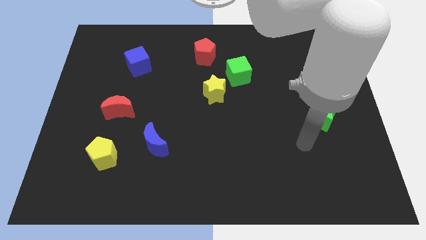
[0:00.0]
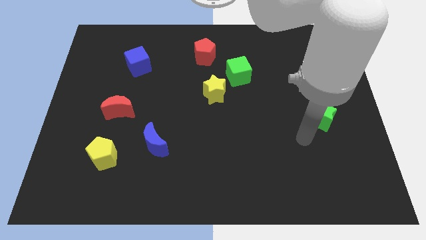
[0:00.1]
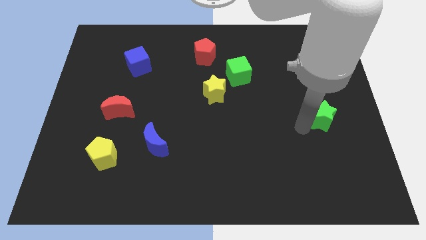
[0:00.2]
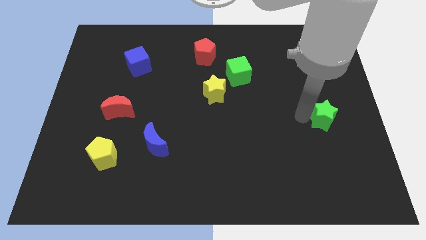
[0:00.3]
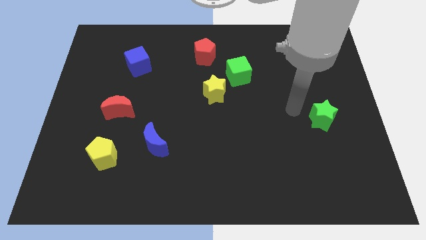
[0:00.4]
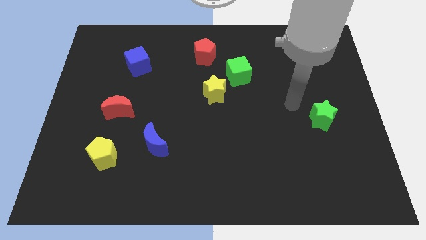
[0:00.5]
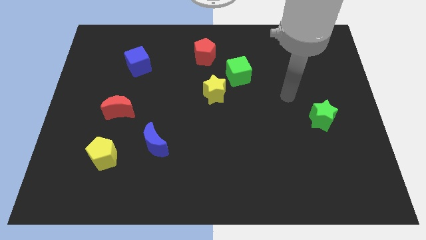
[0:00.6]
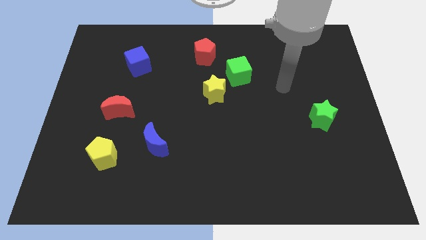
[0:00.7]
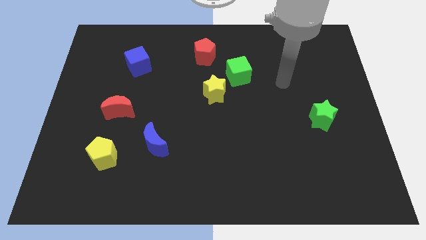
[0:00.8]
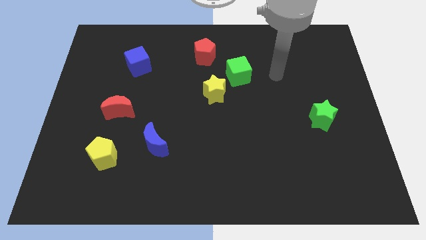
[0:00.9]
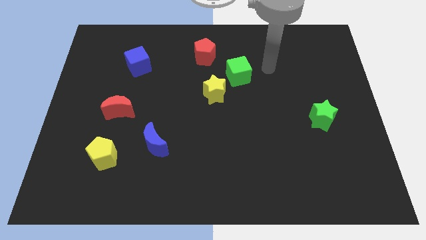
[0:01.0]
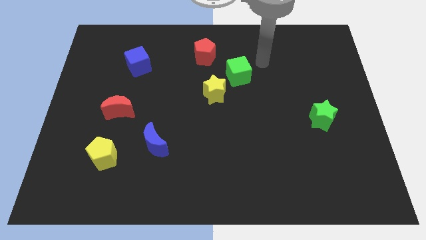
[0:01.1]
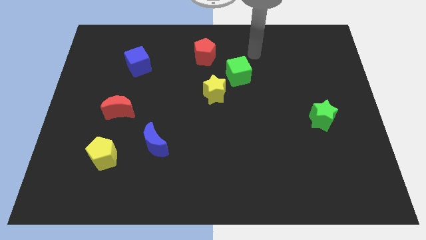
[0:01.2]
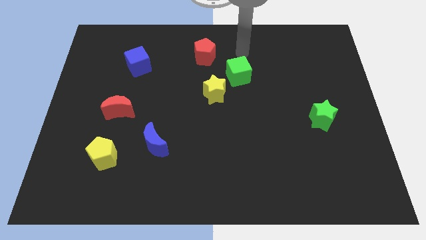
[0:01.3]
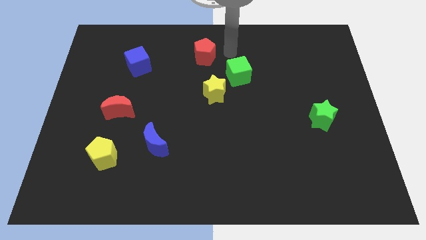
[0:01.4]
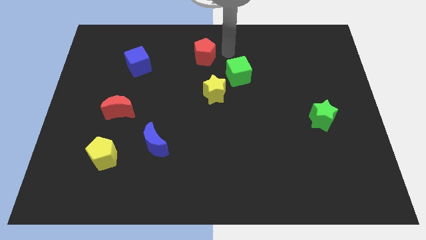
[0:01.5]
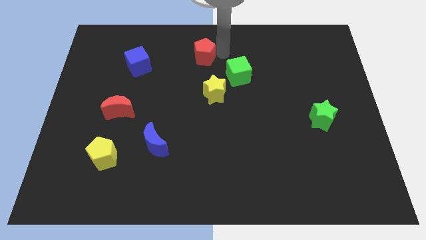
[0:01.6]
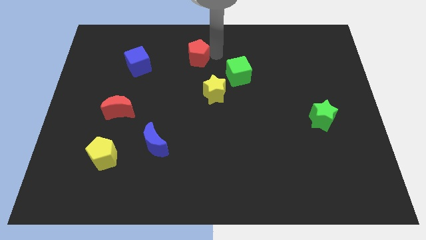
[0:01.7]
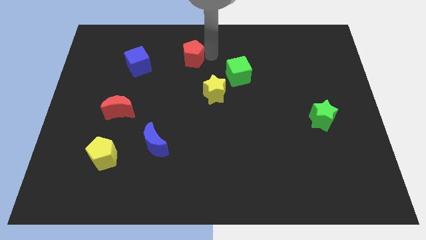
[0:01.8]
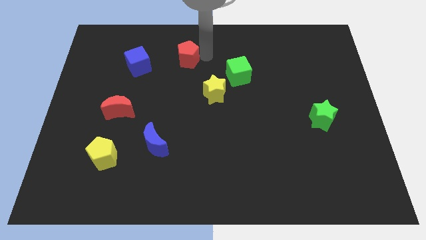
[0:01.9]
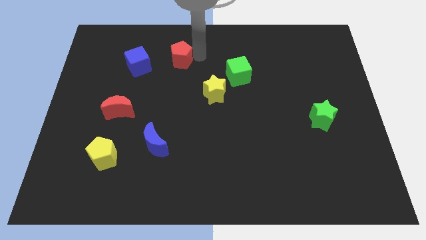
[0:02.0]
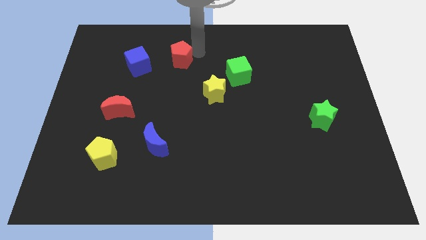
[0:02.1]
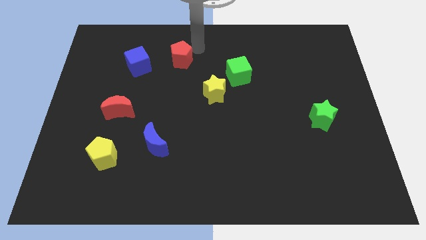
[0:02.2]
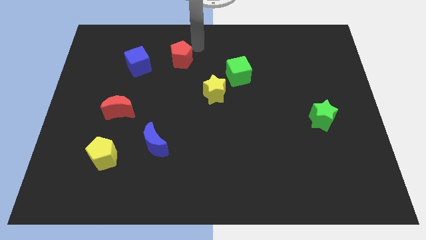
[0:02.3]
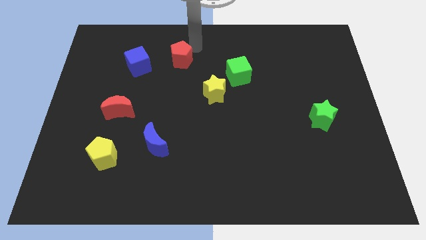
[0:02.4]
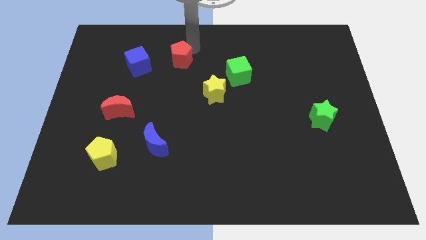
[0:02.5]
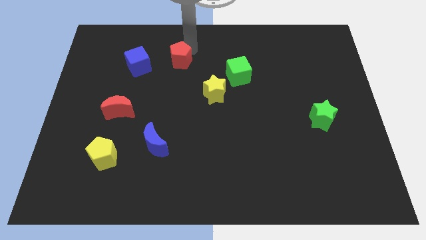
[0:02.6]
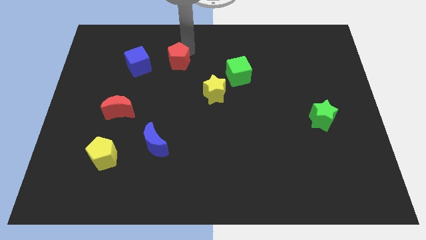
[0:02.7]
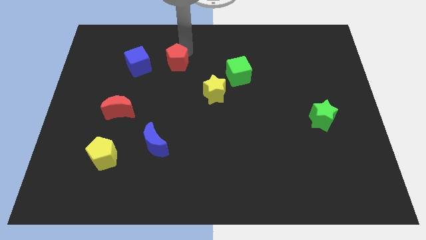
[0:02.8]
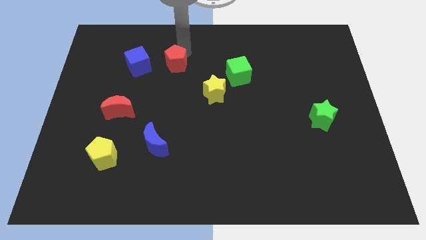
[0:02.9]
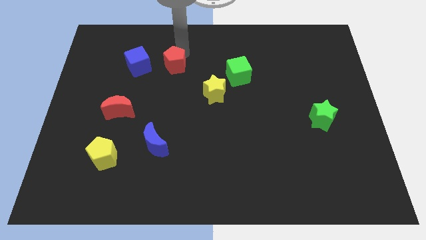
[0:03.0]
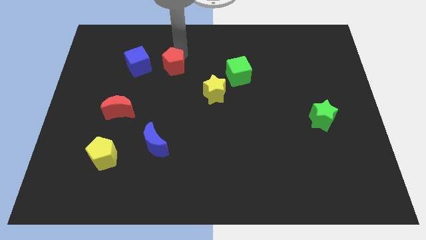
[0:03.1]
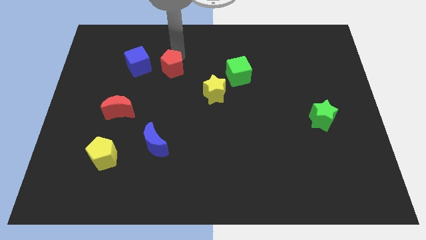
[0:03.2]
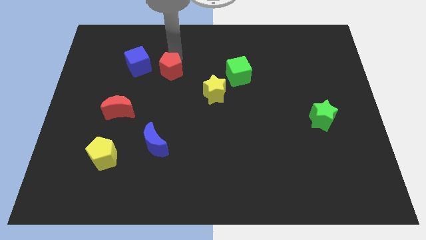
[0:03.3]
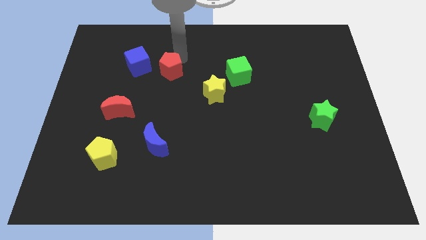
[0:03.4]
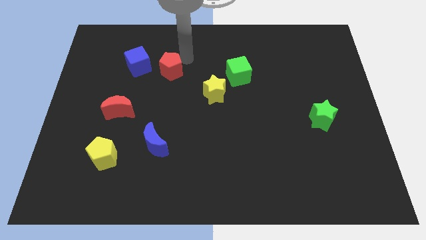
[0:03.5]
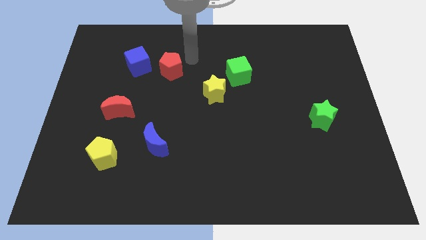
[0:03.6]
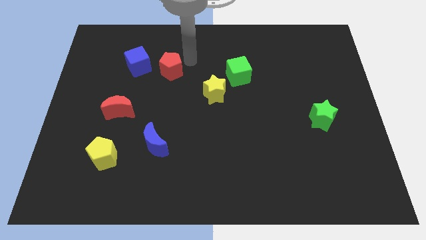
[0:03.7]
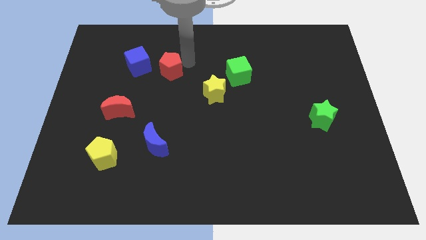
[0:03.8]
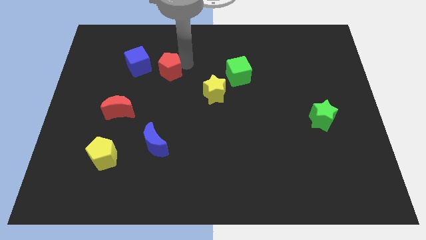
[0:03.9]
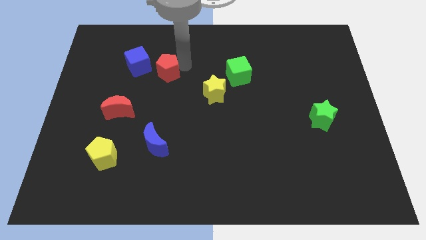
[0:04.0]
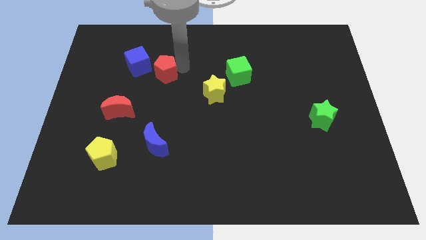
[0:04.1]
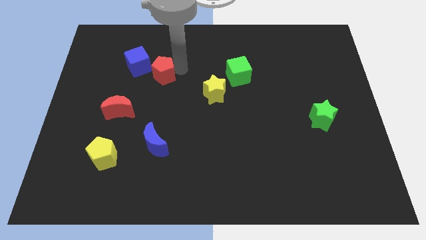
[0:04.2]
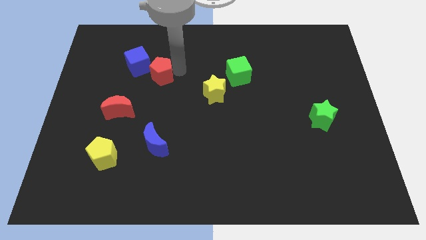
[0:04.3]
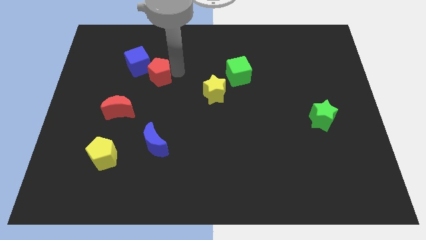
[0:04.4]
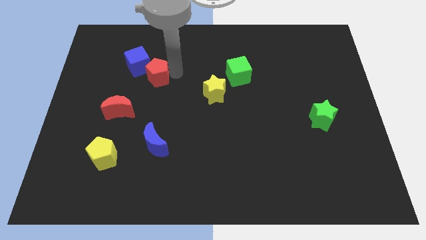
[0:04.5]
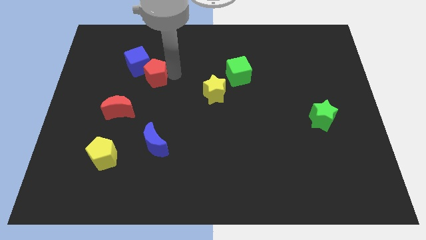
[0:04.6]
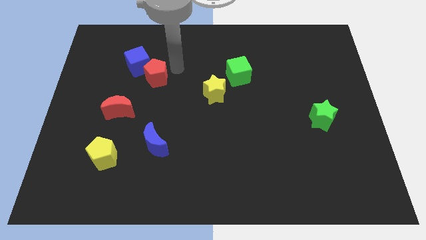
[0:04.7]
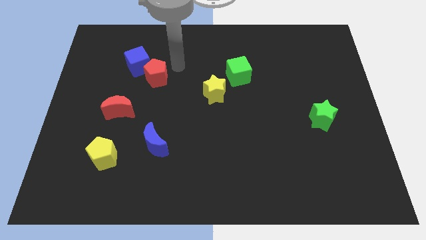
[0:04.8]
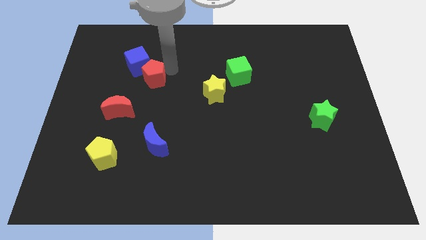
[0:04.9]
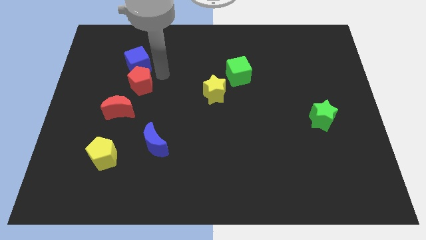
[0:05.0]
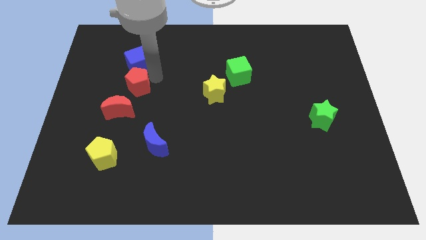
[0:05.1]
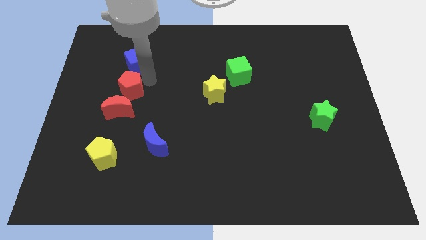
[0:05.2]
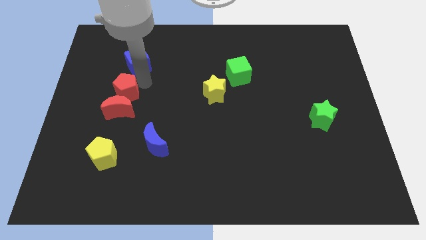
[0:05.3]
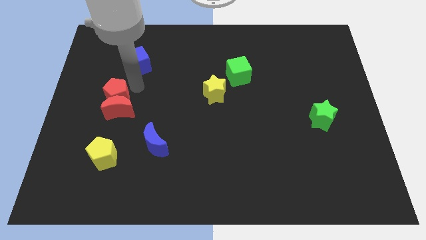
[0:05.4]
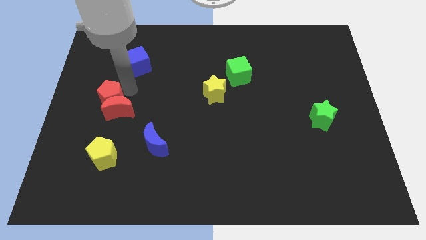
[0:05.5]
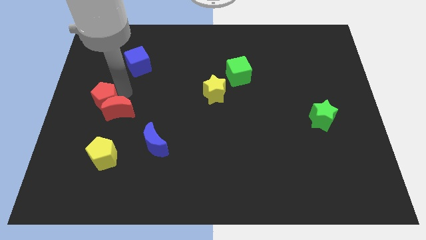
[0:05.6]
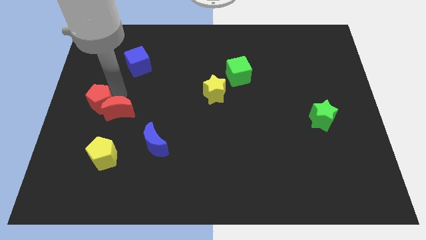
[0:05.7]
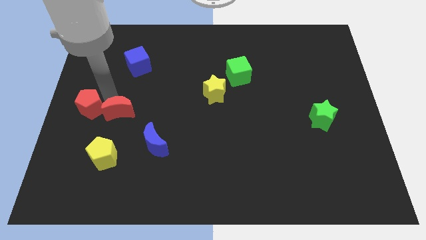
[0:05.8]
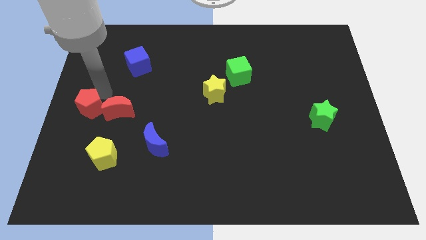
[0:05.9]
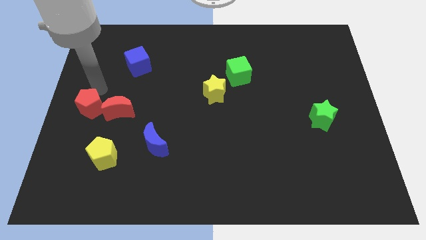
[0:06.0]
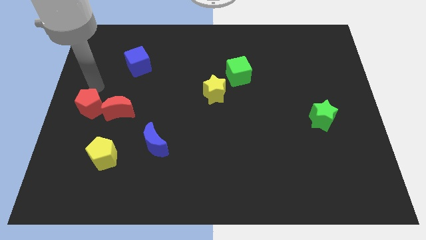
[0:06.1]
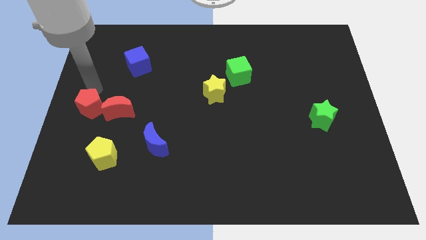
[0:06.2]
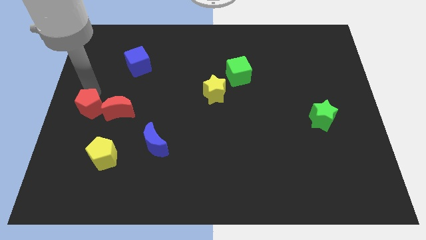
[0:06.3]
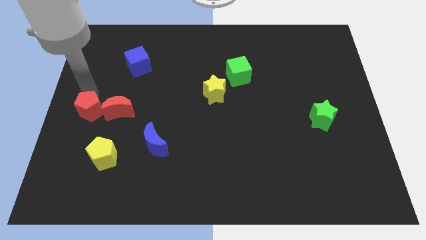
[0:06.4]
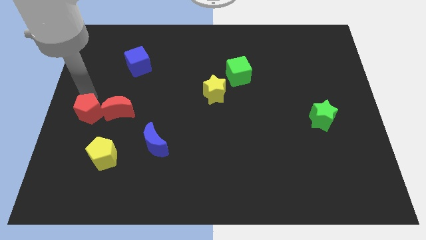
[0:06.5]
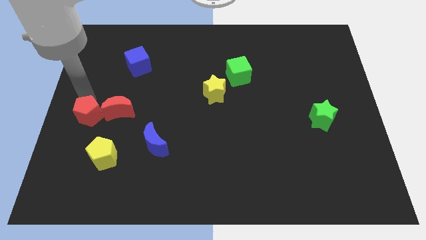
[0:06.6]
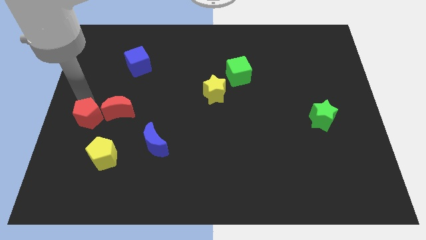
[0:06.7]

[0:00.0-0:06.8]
push the red pentagon to the top left of the yellow pentagon

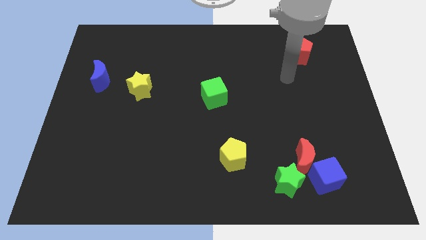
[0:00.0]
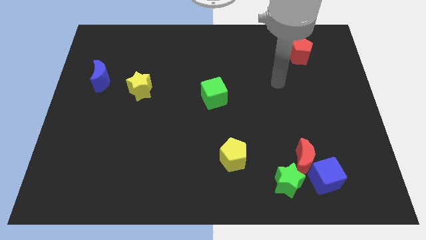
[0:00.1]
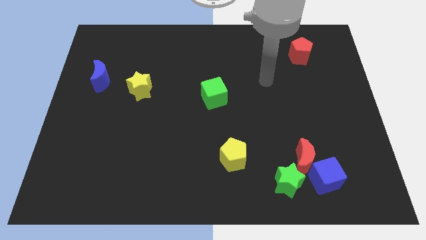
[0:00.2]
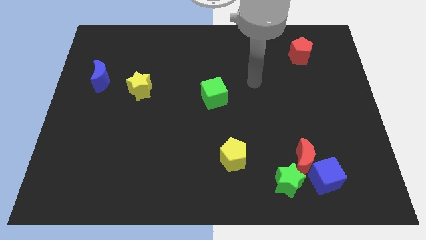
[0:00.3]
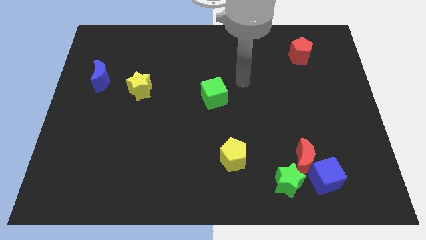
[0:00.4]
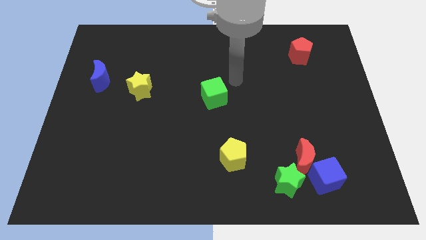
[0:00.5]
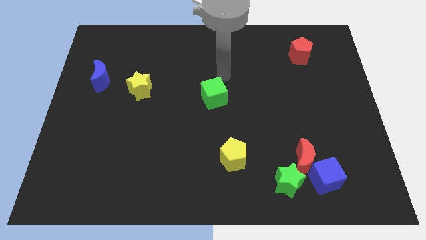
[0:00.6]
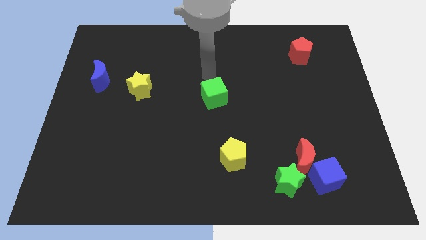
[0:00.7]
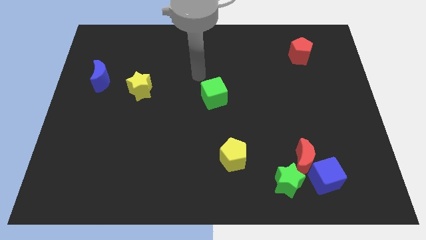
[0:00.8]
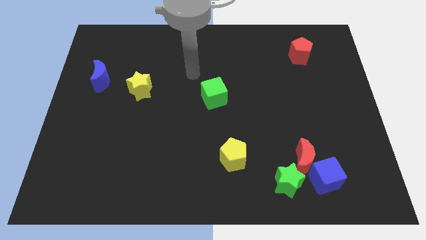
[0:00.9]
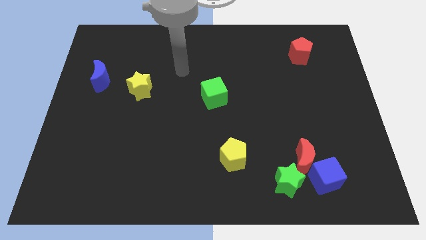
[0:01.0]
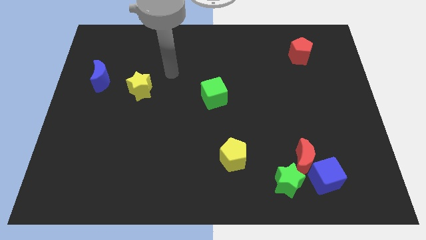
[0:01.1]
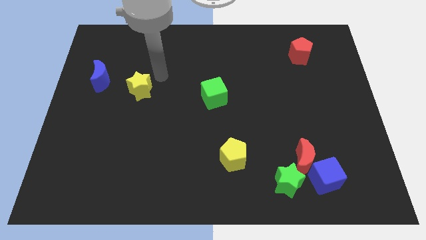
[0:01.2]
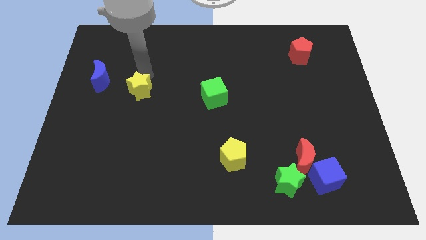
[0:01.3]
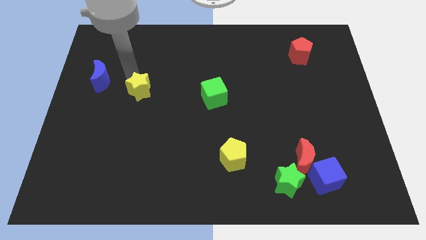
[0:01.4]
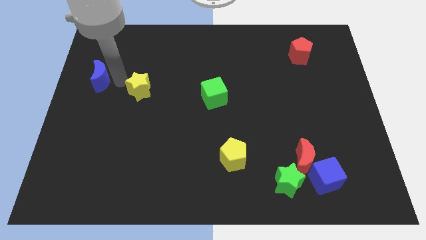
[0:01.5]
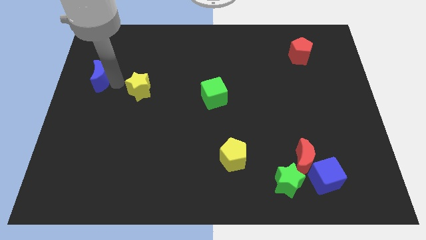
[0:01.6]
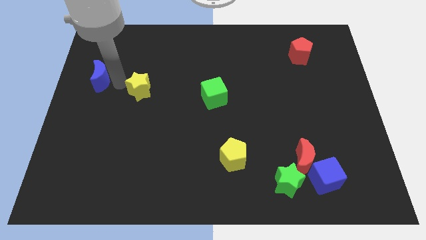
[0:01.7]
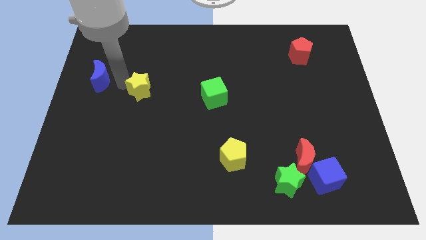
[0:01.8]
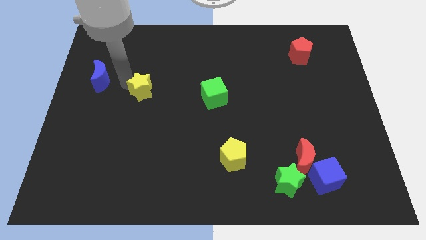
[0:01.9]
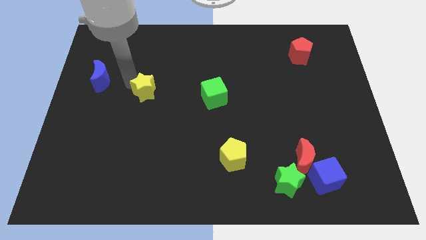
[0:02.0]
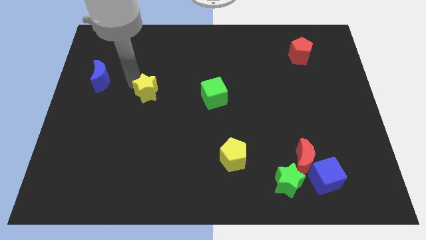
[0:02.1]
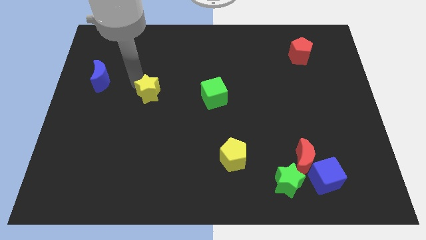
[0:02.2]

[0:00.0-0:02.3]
slide the yellow star just left of the green cube
